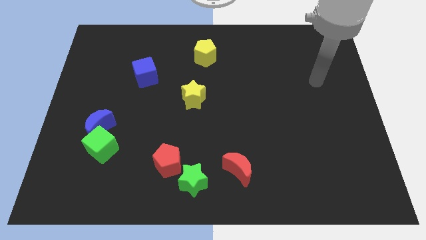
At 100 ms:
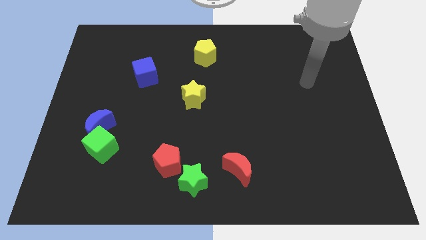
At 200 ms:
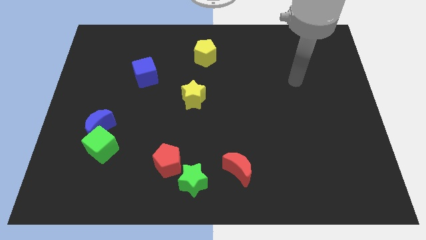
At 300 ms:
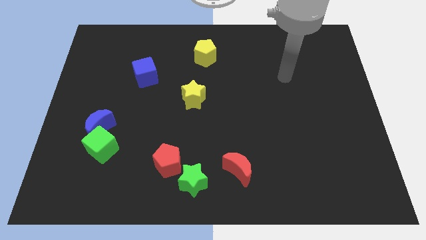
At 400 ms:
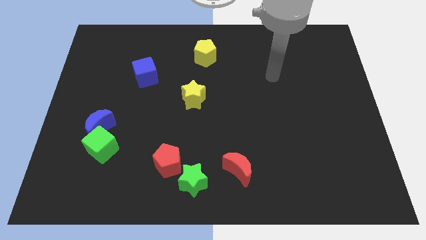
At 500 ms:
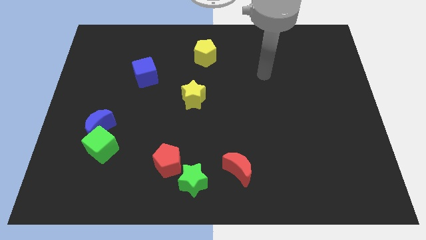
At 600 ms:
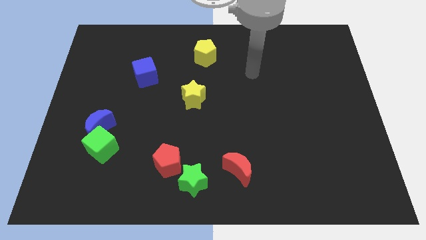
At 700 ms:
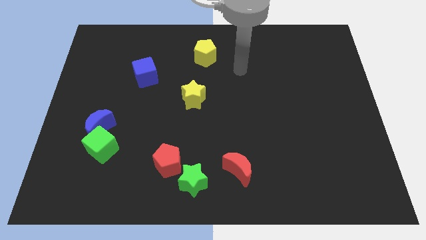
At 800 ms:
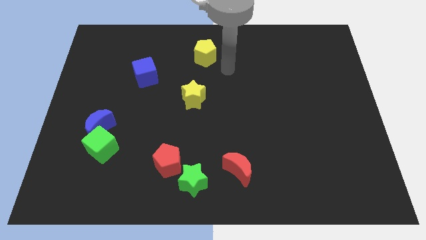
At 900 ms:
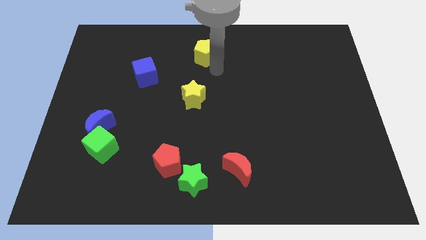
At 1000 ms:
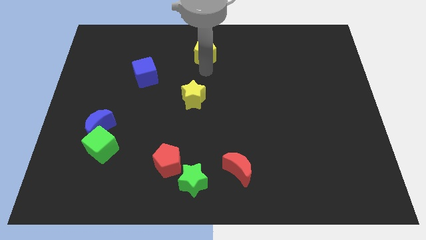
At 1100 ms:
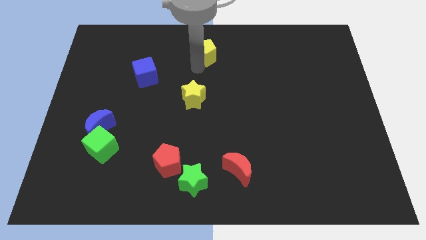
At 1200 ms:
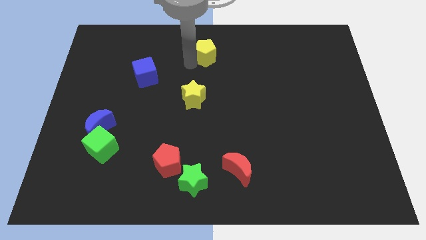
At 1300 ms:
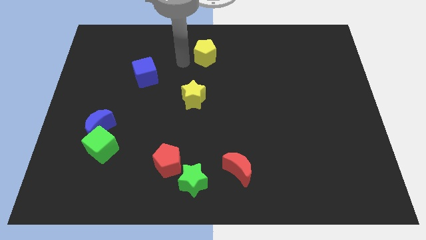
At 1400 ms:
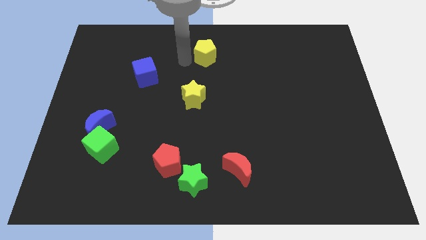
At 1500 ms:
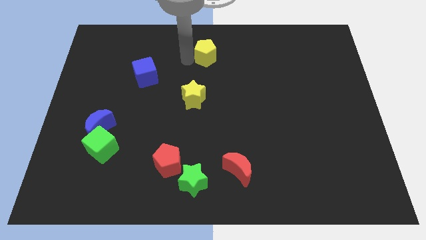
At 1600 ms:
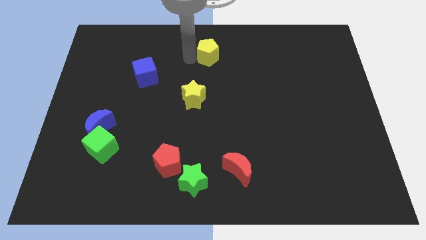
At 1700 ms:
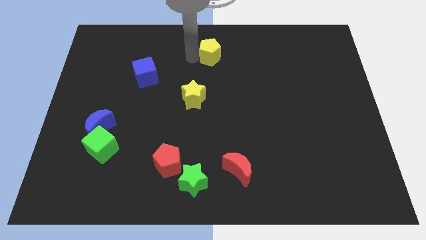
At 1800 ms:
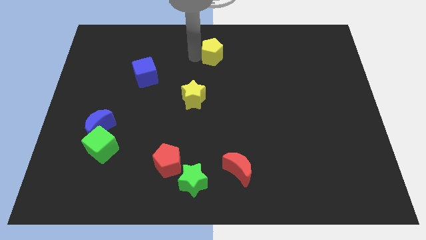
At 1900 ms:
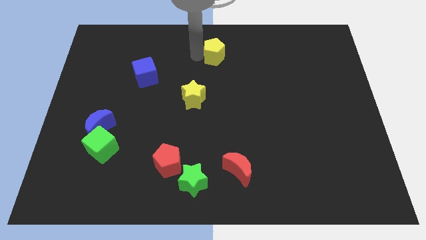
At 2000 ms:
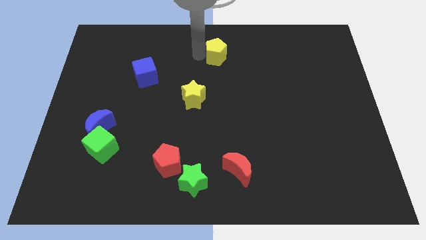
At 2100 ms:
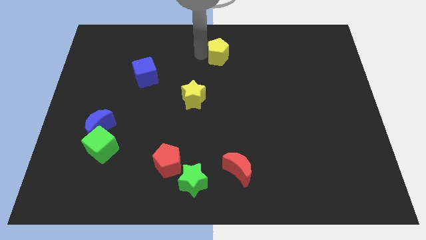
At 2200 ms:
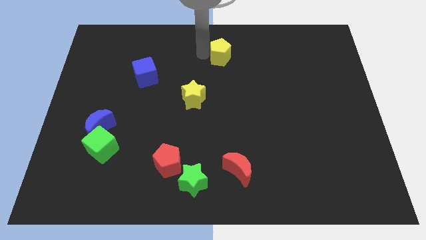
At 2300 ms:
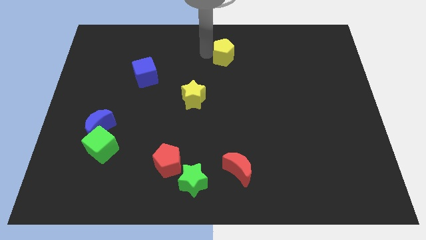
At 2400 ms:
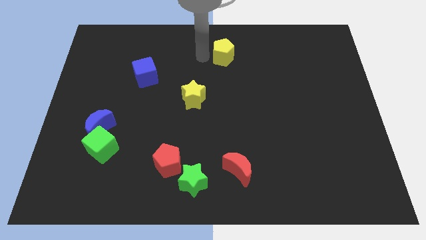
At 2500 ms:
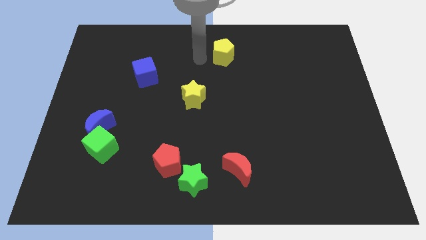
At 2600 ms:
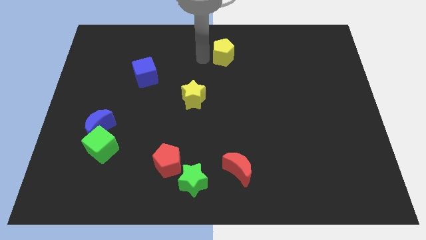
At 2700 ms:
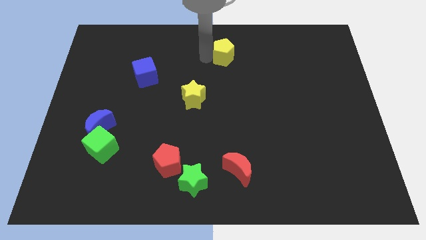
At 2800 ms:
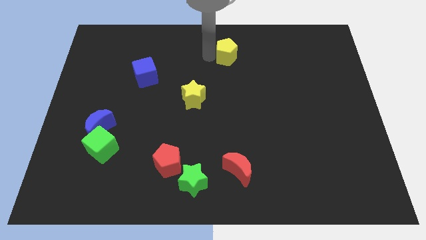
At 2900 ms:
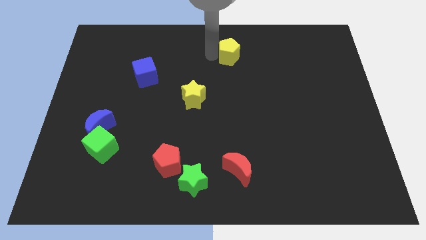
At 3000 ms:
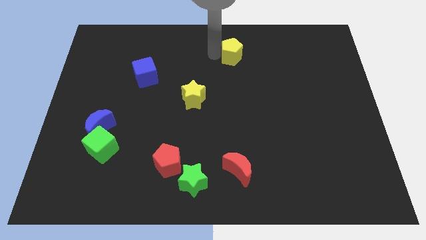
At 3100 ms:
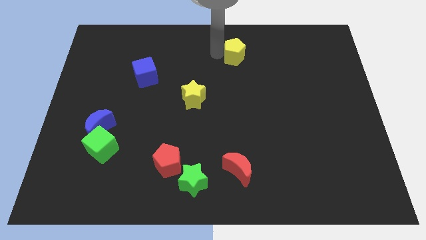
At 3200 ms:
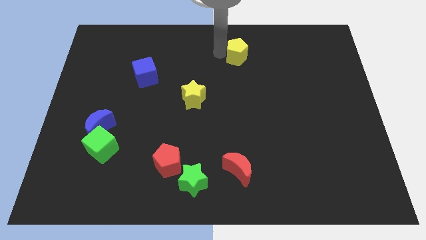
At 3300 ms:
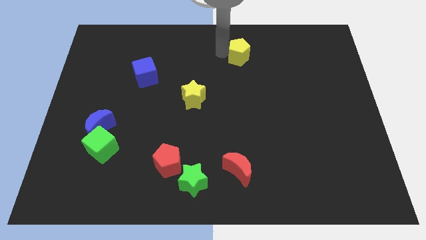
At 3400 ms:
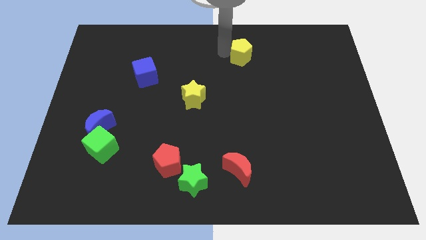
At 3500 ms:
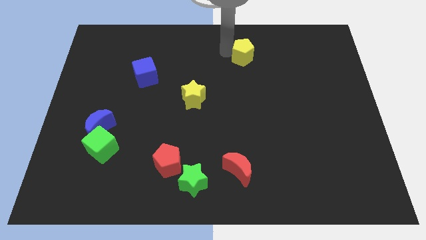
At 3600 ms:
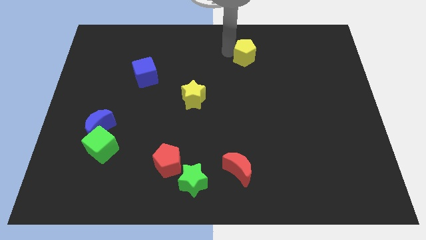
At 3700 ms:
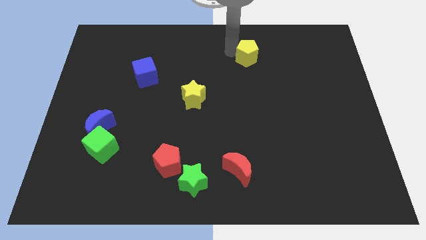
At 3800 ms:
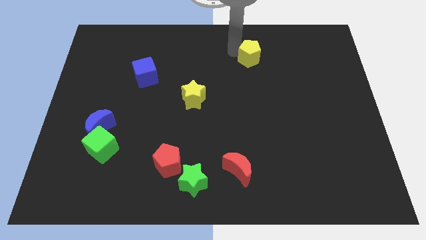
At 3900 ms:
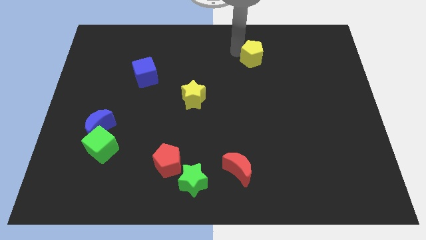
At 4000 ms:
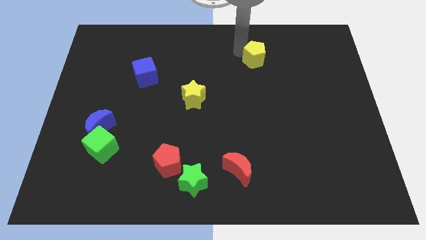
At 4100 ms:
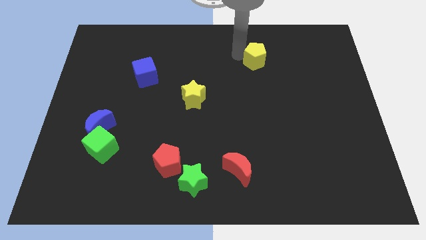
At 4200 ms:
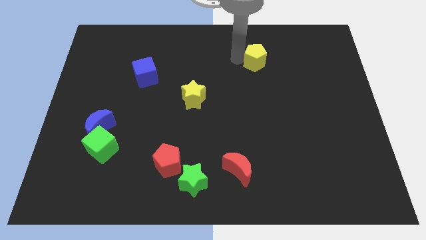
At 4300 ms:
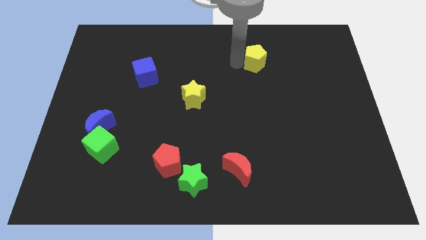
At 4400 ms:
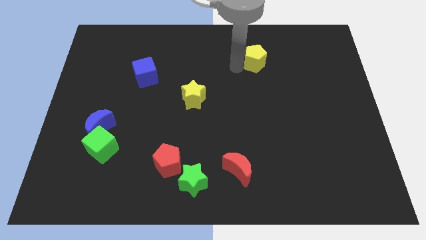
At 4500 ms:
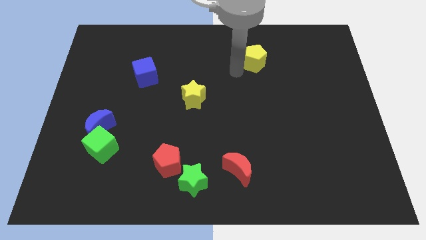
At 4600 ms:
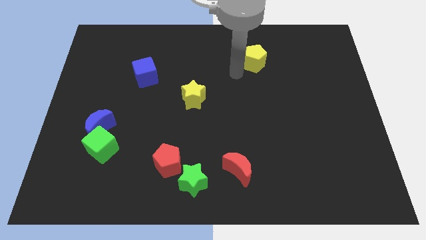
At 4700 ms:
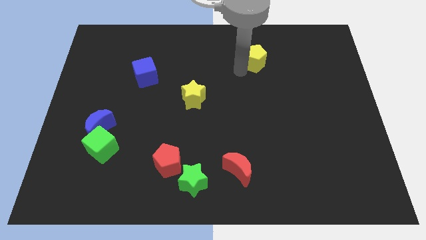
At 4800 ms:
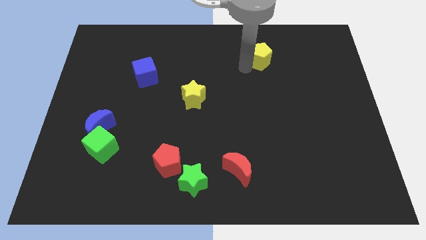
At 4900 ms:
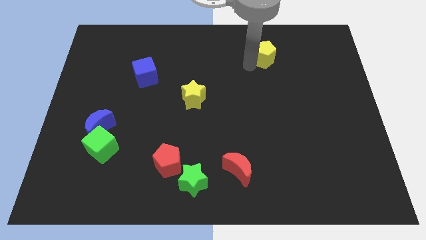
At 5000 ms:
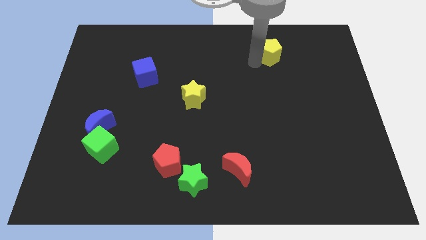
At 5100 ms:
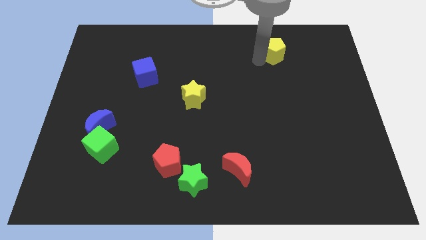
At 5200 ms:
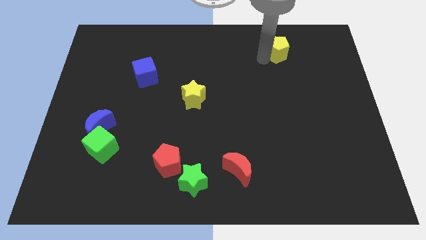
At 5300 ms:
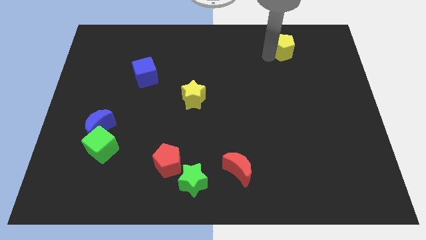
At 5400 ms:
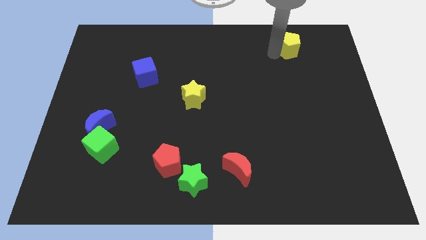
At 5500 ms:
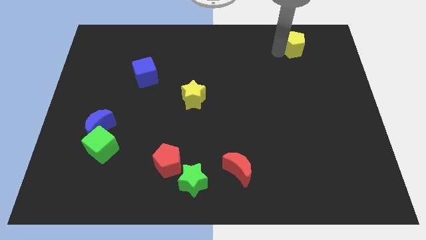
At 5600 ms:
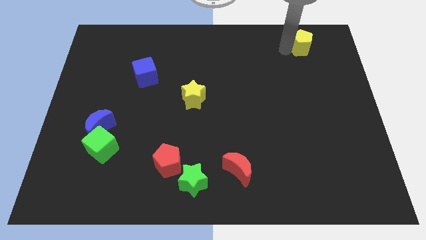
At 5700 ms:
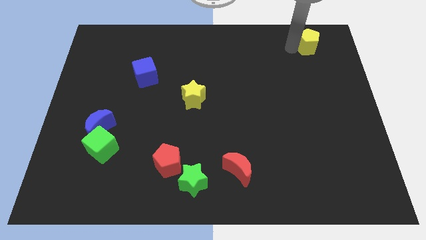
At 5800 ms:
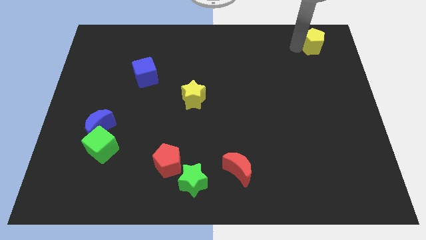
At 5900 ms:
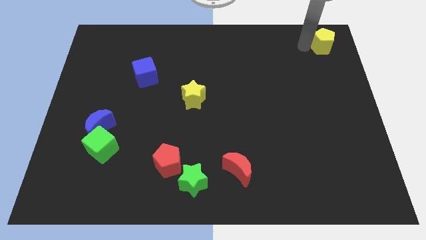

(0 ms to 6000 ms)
put the yellow pentagon to the top right
